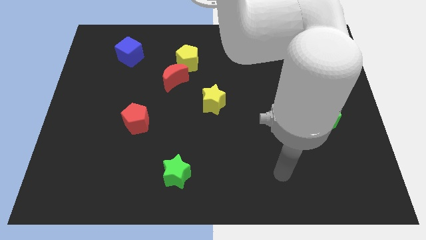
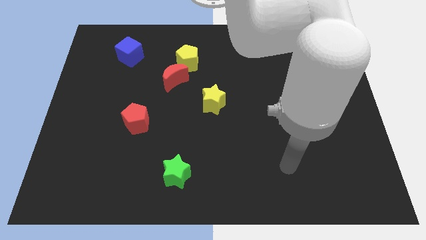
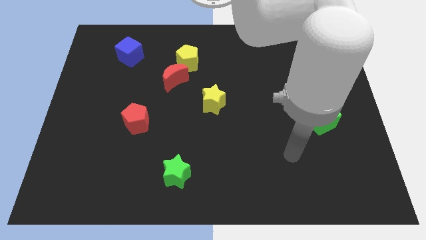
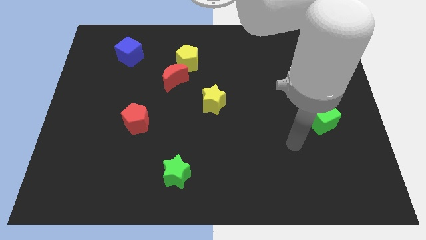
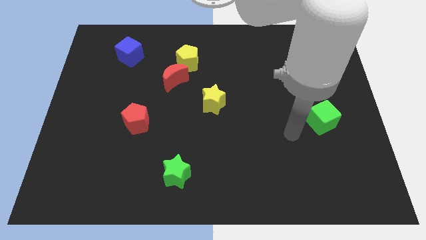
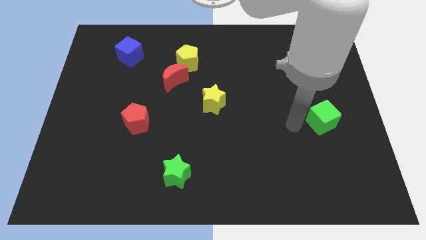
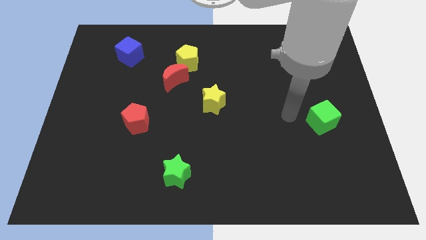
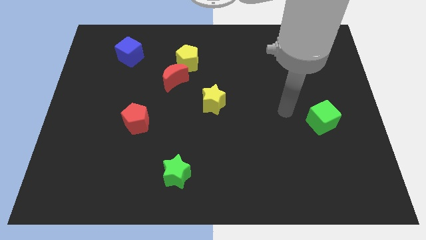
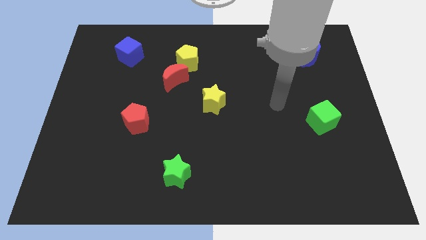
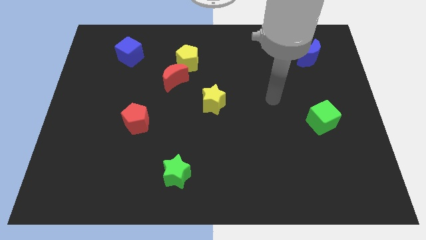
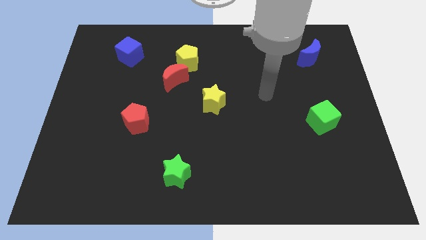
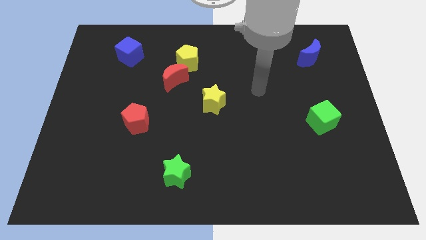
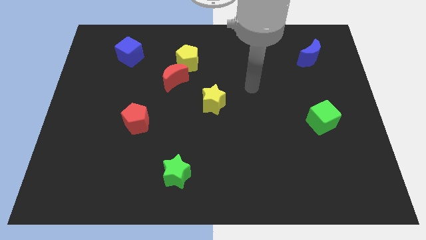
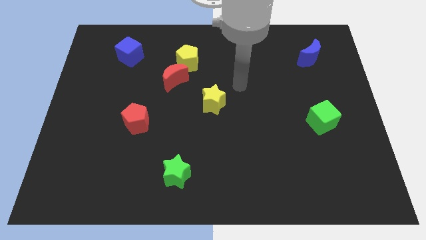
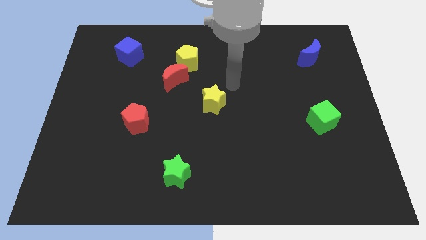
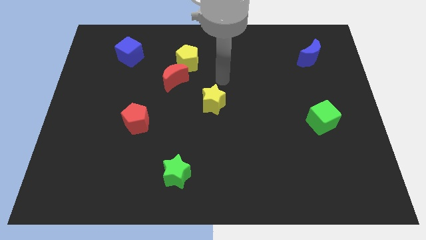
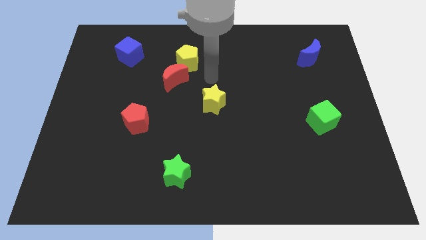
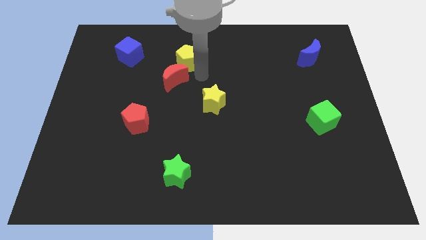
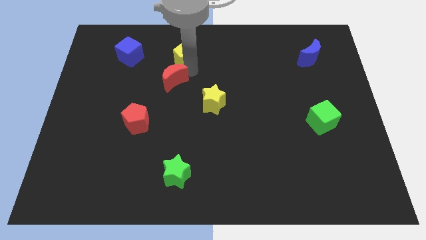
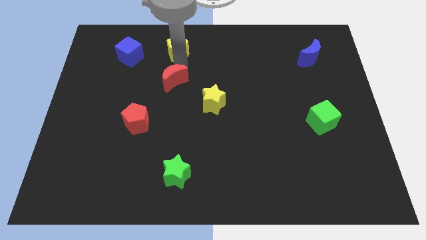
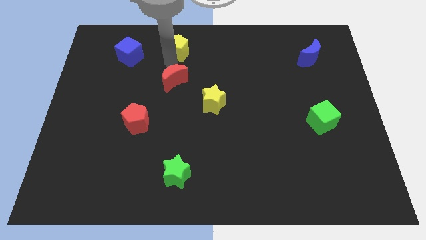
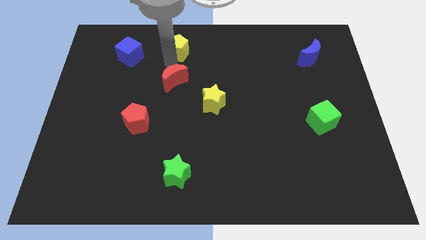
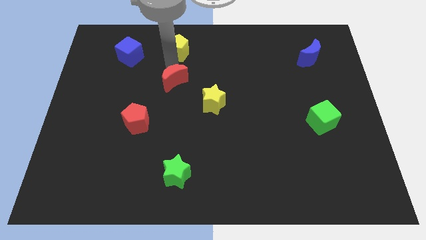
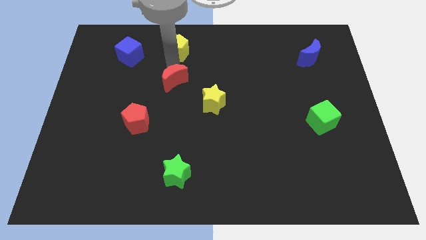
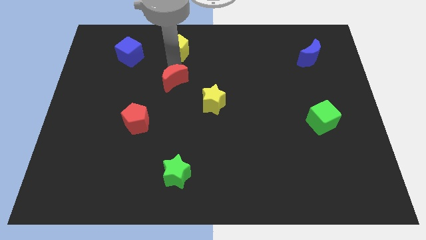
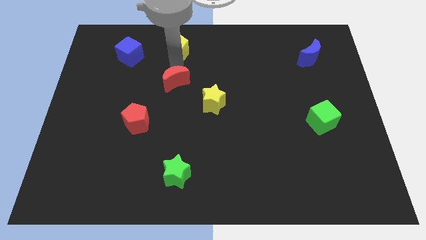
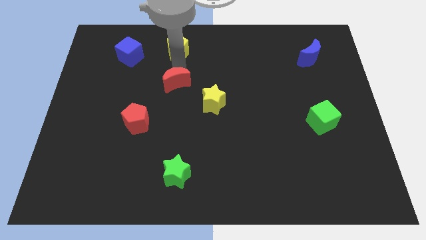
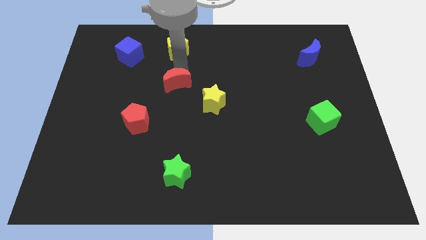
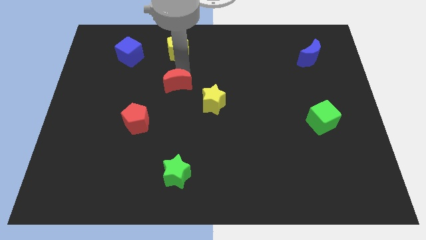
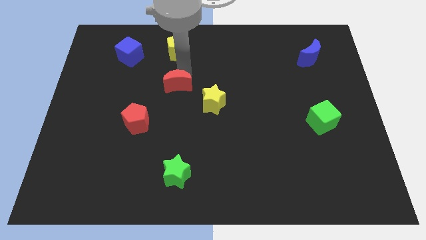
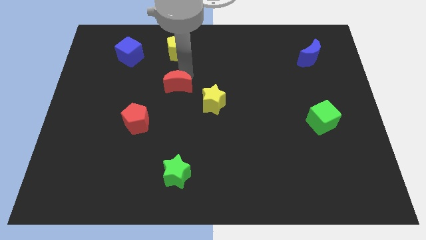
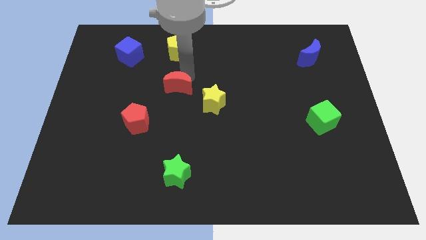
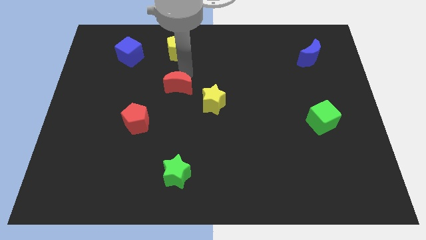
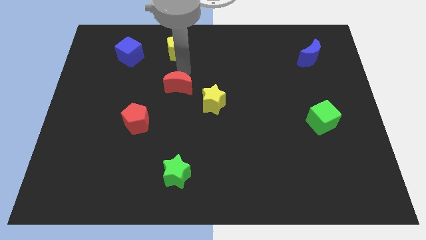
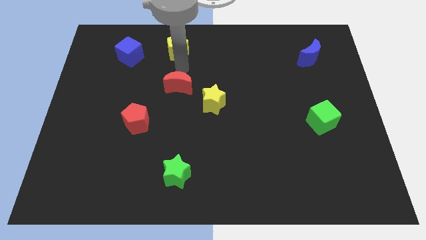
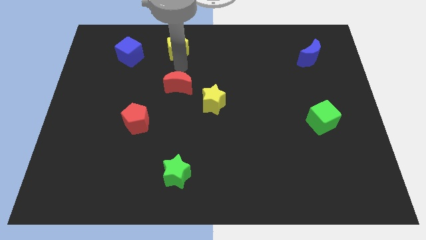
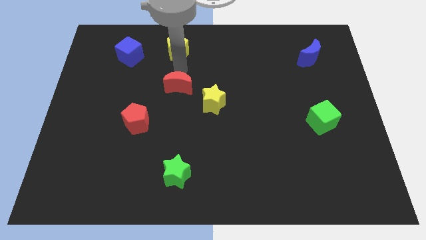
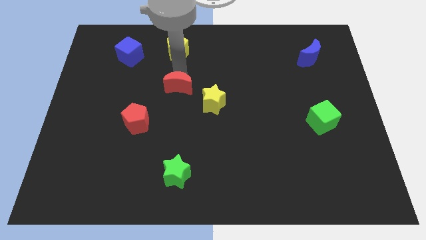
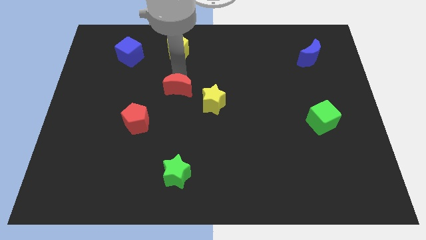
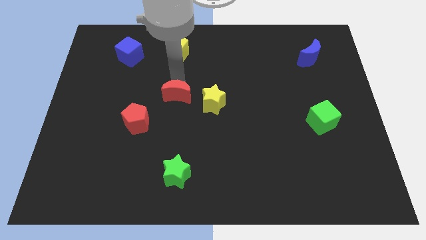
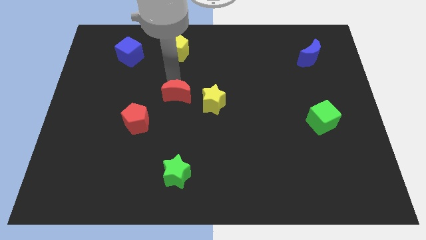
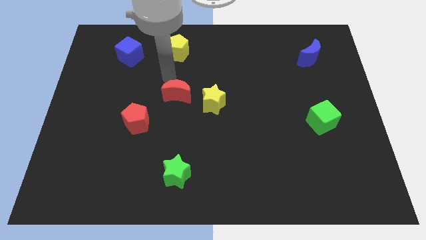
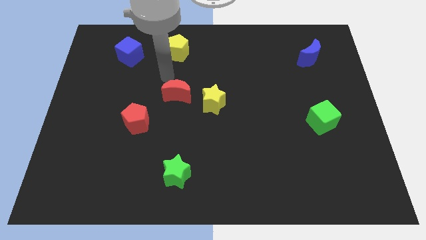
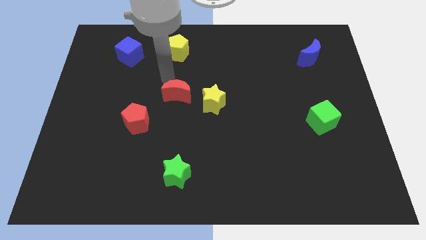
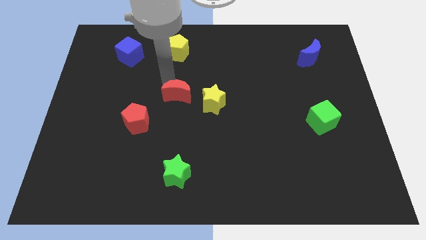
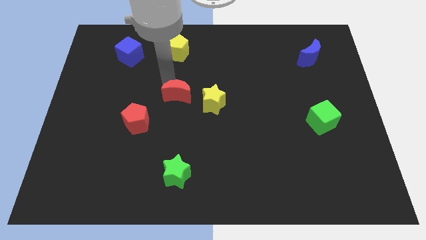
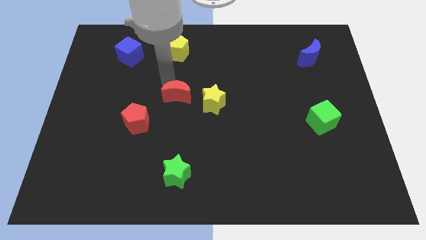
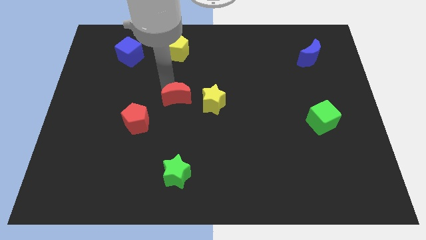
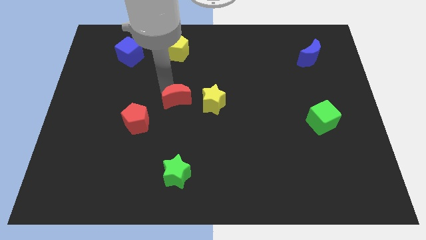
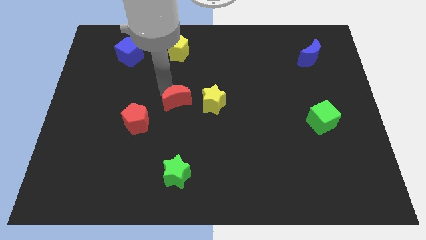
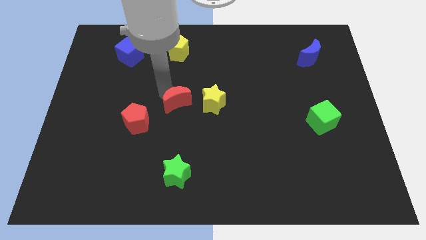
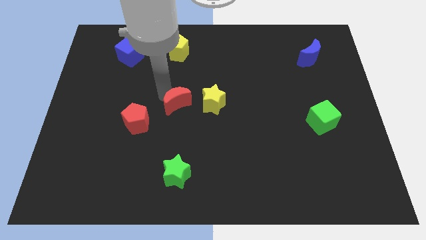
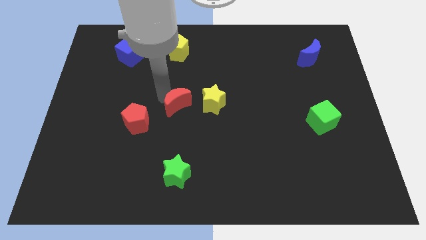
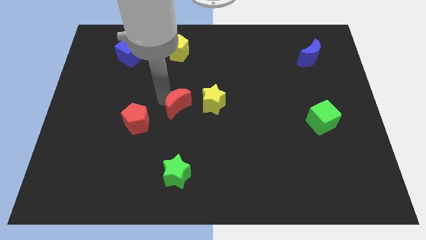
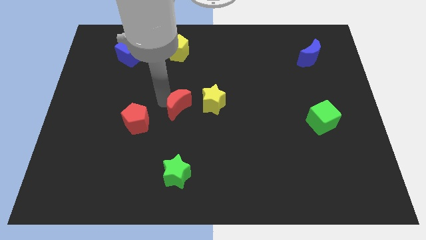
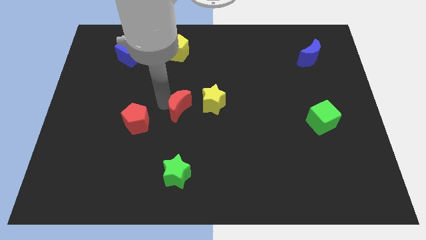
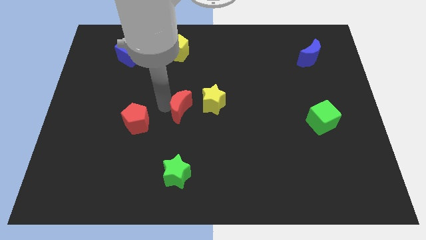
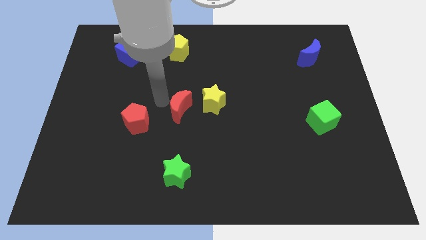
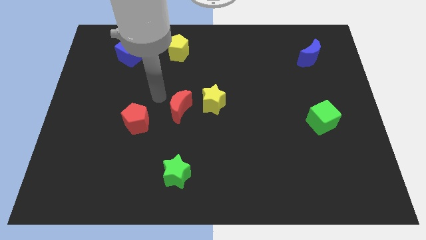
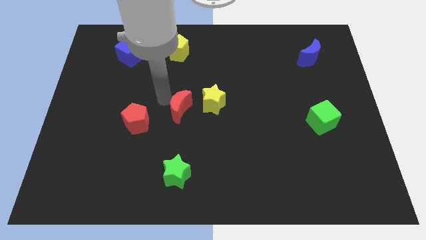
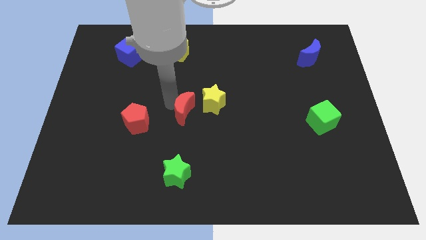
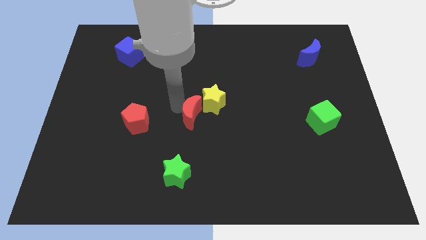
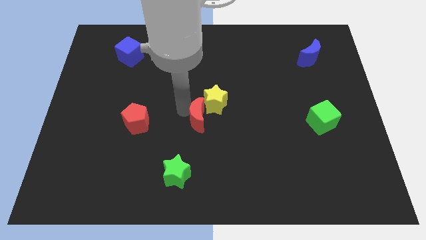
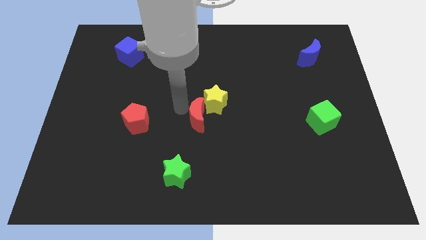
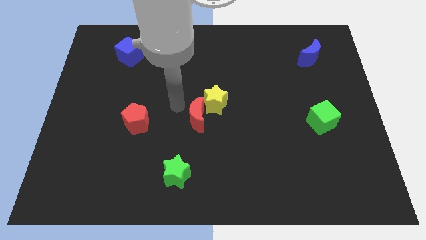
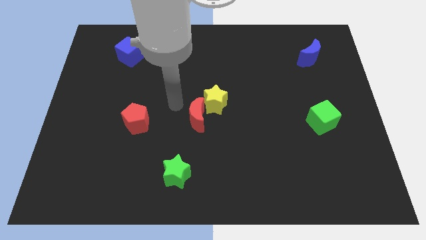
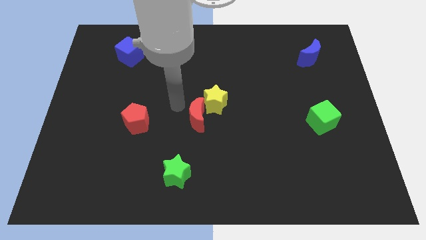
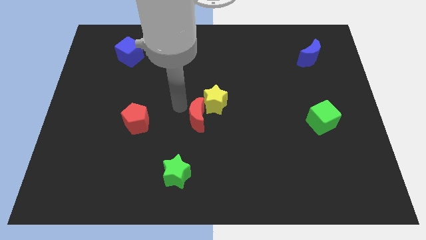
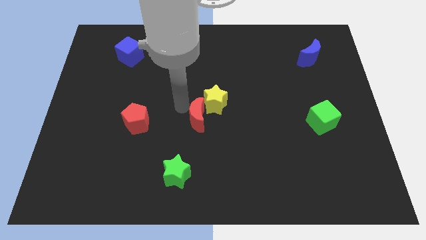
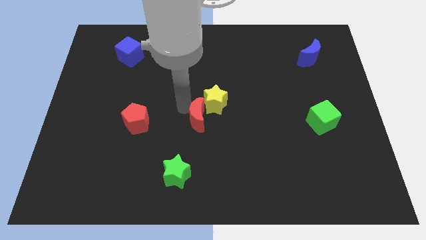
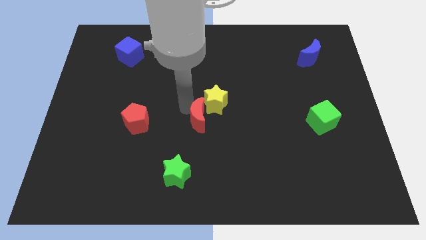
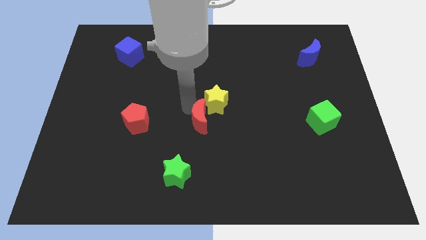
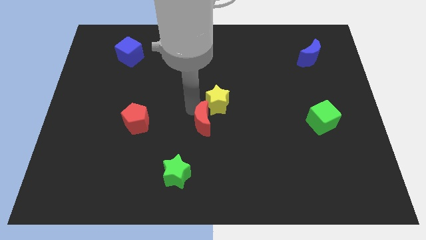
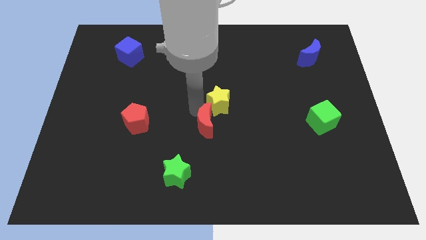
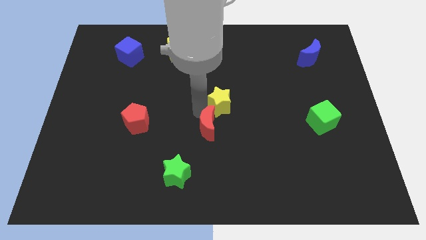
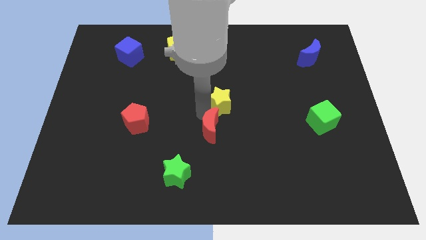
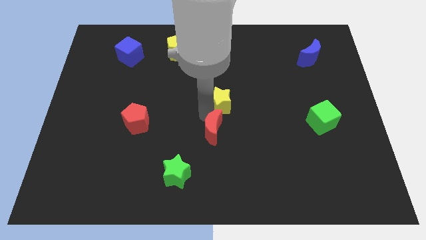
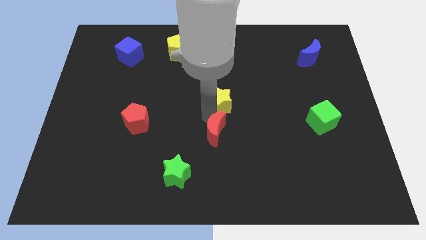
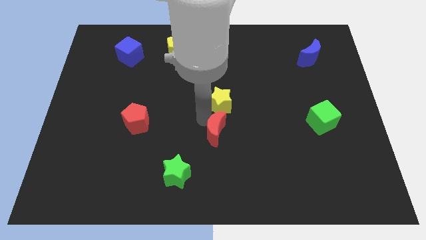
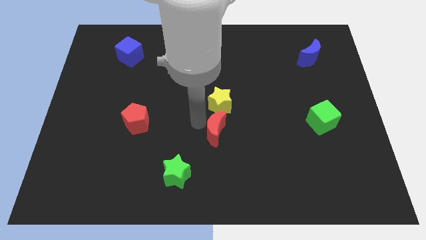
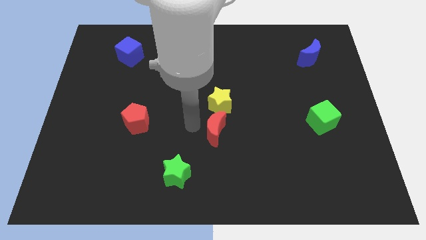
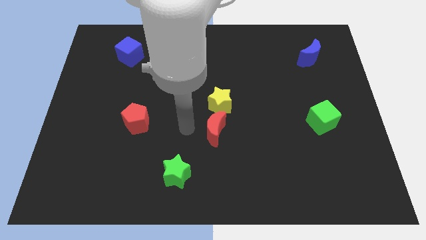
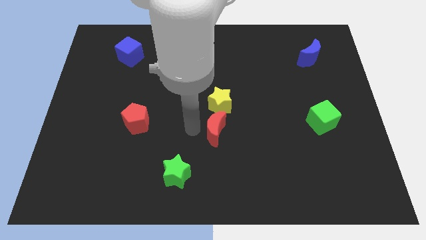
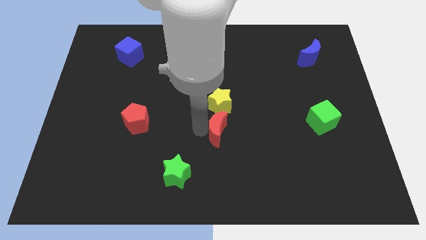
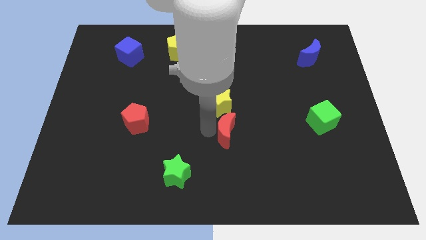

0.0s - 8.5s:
push the red moon down and right
